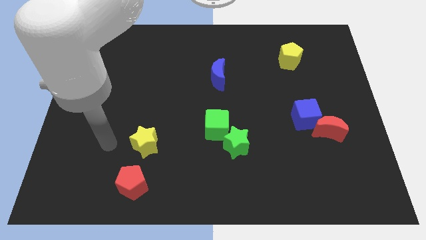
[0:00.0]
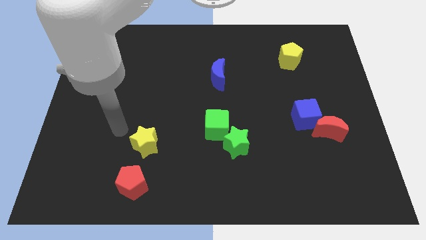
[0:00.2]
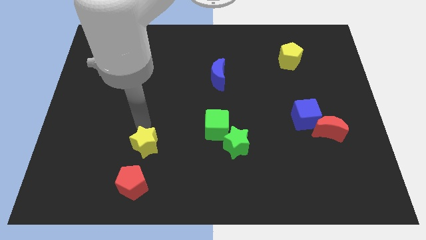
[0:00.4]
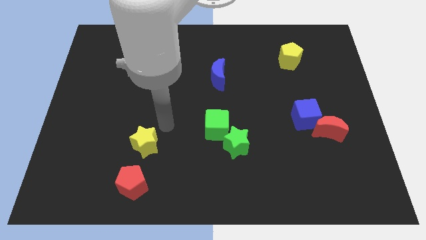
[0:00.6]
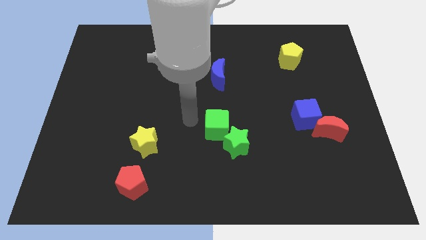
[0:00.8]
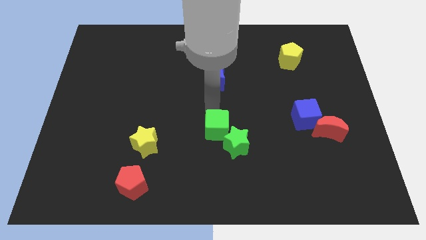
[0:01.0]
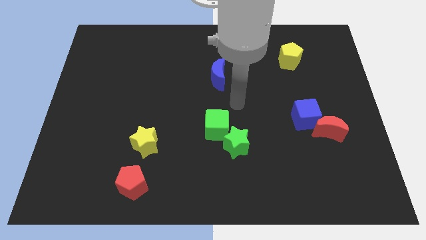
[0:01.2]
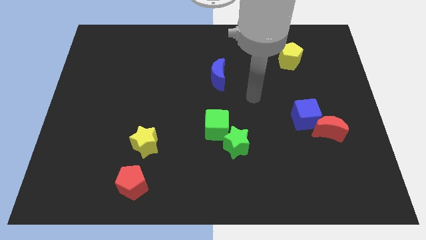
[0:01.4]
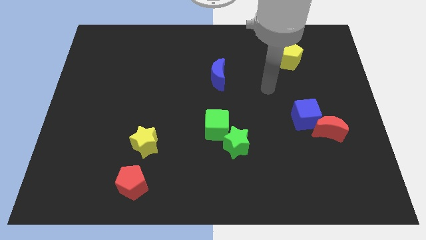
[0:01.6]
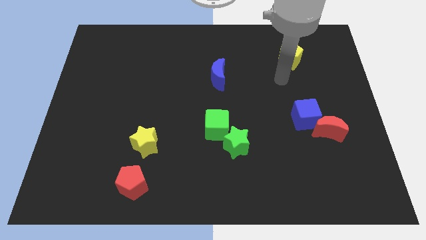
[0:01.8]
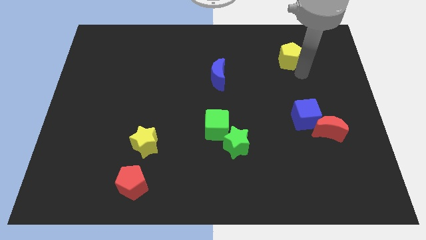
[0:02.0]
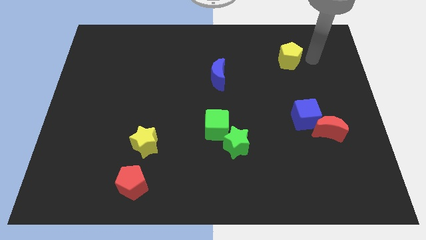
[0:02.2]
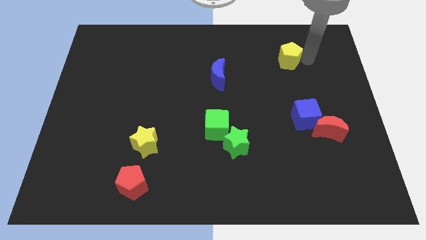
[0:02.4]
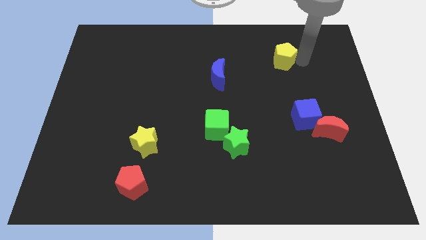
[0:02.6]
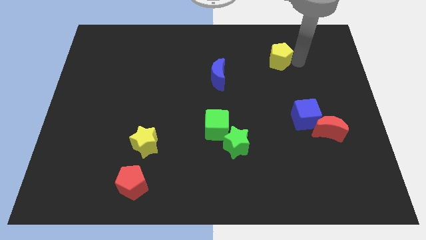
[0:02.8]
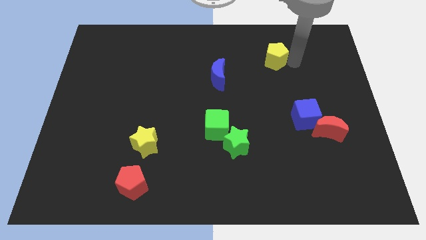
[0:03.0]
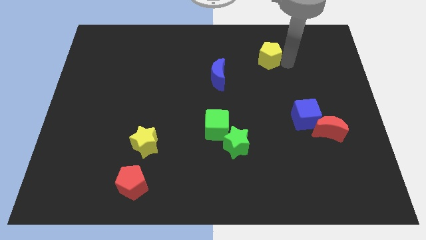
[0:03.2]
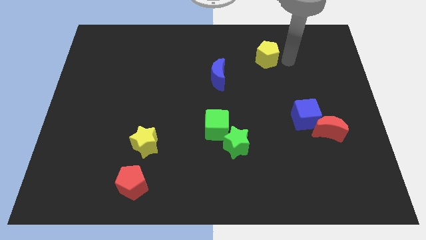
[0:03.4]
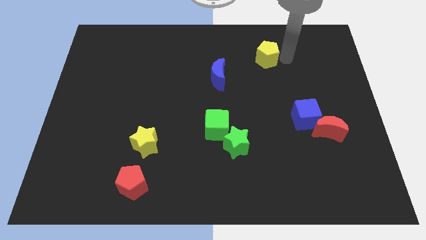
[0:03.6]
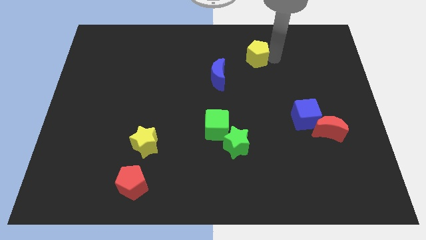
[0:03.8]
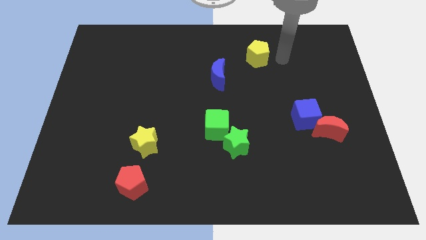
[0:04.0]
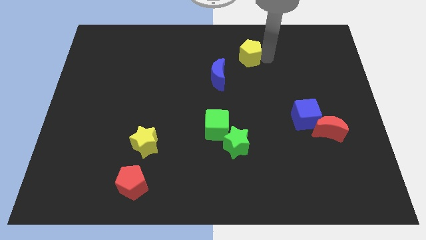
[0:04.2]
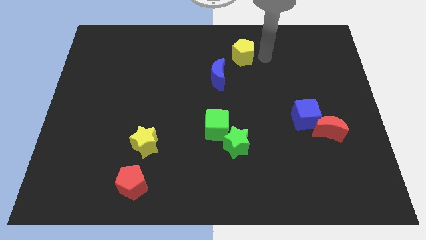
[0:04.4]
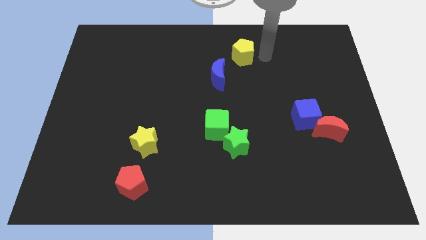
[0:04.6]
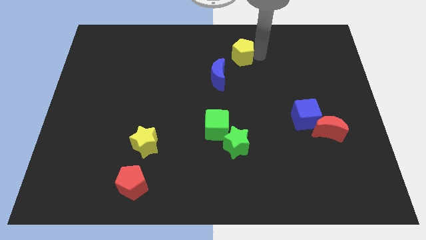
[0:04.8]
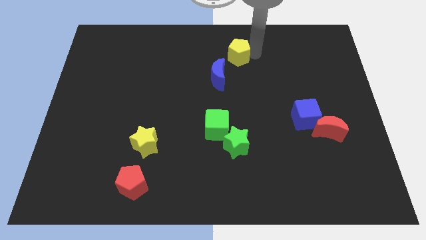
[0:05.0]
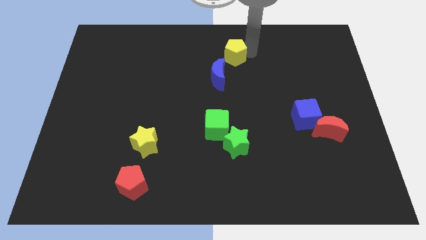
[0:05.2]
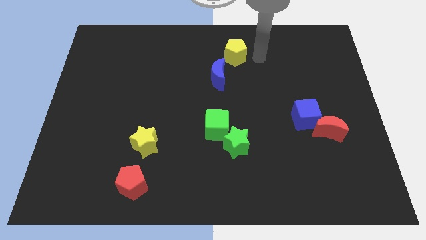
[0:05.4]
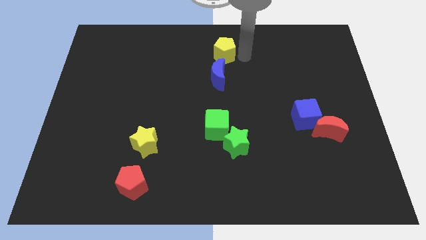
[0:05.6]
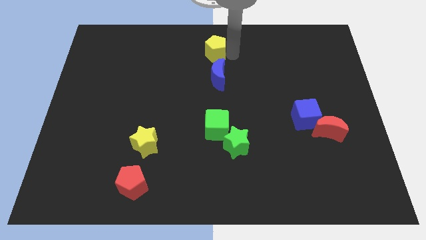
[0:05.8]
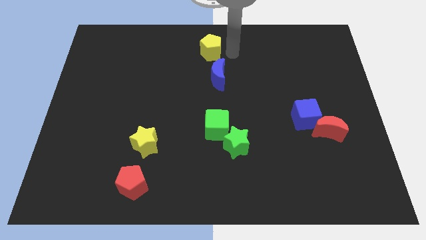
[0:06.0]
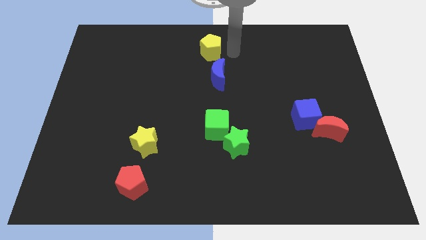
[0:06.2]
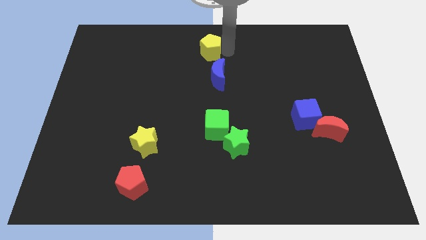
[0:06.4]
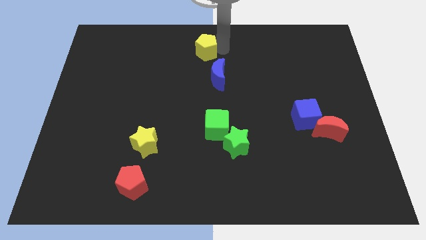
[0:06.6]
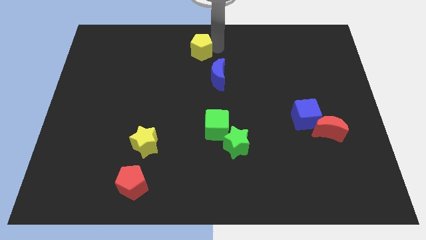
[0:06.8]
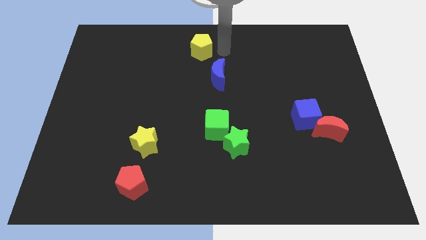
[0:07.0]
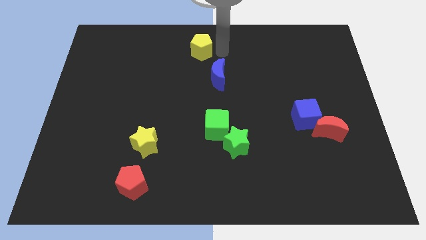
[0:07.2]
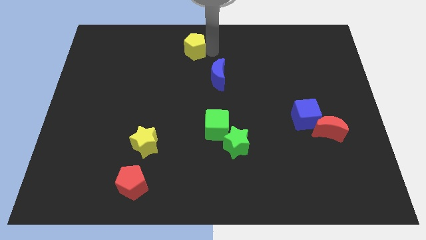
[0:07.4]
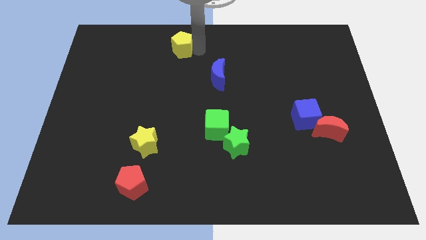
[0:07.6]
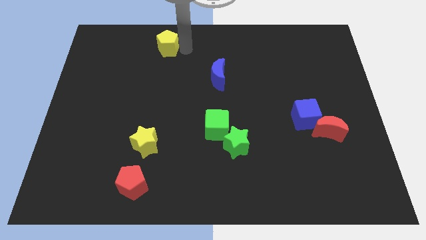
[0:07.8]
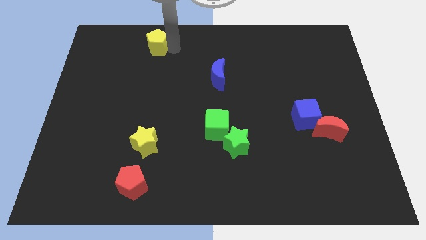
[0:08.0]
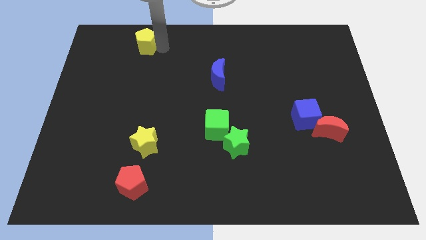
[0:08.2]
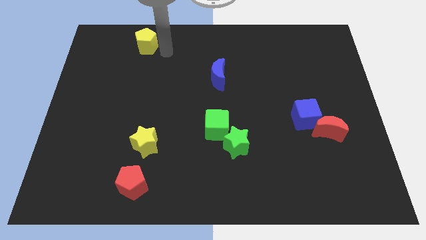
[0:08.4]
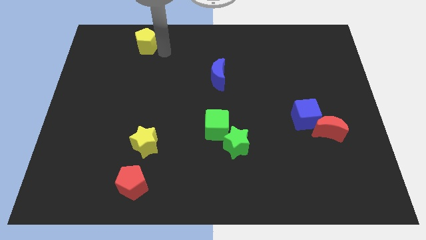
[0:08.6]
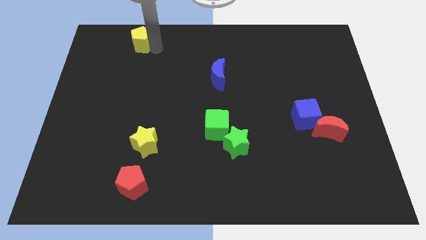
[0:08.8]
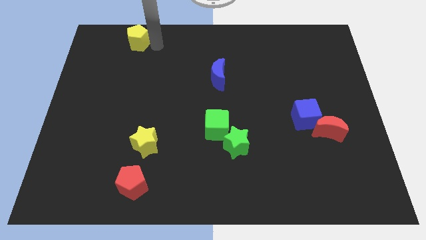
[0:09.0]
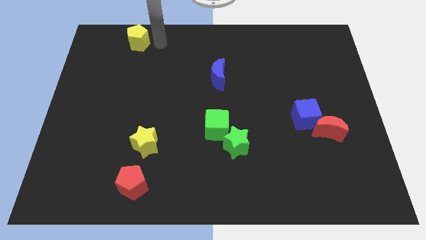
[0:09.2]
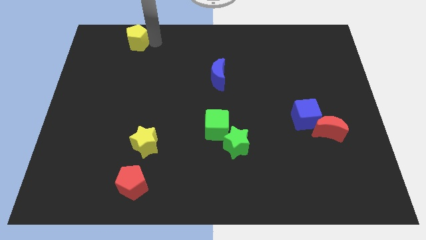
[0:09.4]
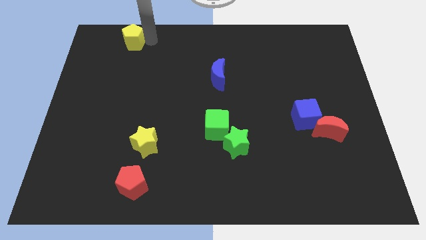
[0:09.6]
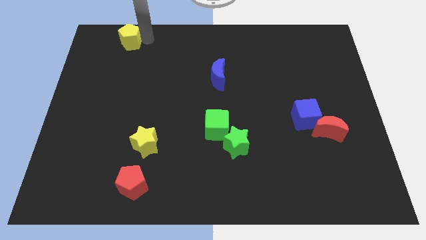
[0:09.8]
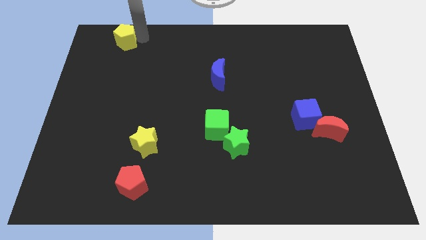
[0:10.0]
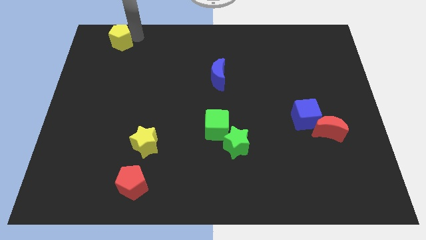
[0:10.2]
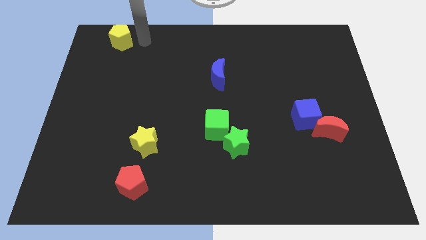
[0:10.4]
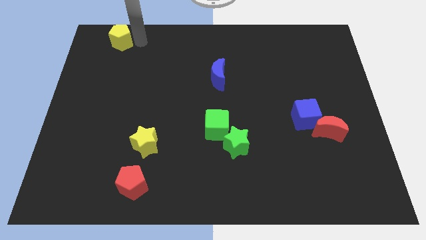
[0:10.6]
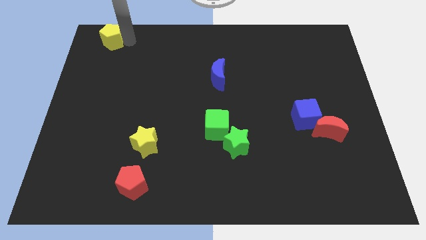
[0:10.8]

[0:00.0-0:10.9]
put the yellow pentagon to the top left

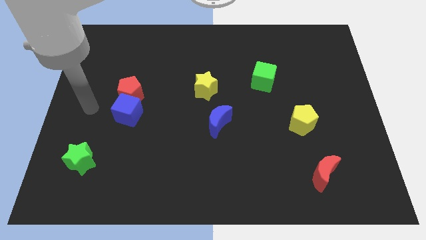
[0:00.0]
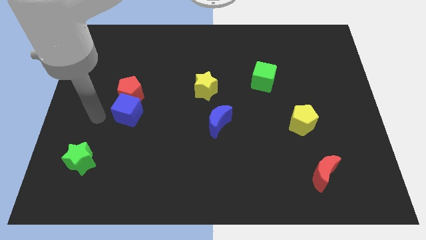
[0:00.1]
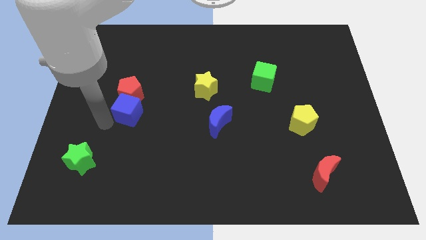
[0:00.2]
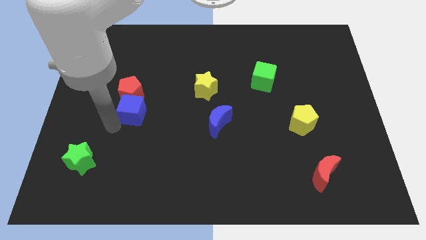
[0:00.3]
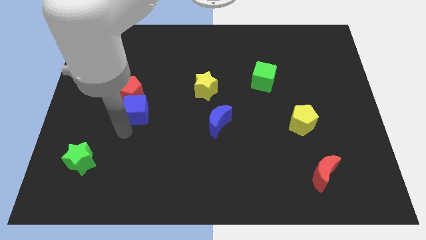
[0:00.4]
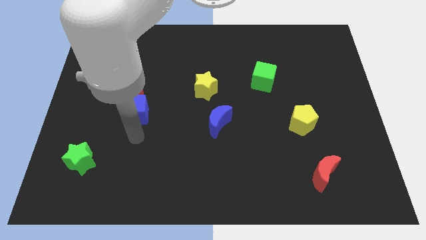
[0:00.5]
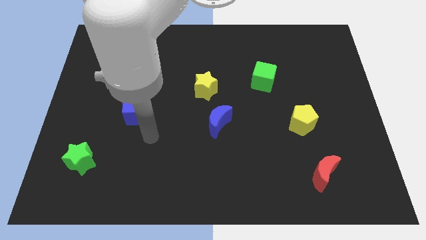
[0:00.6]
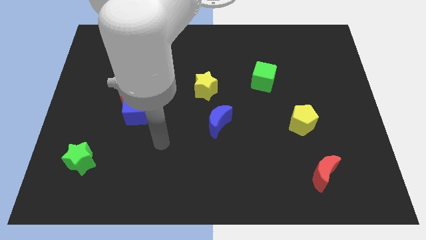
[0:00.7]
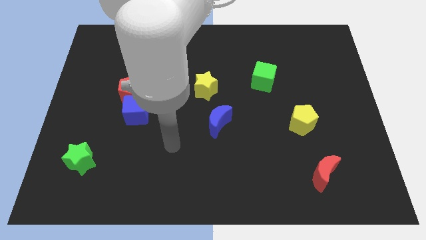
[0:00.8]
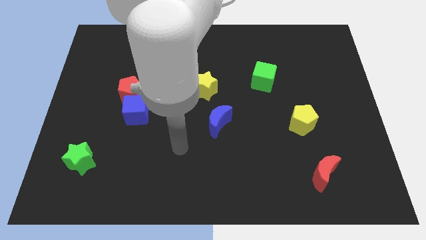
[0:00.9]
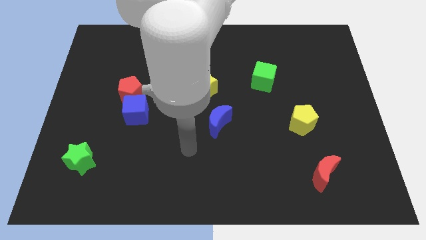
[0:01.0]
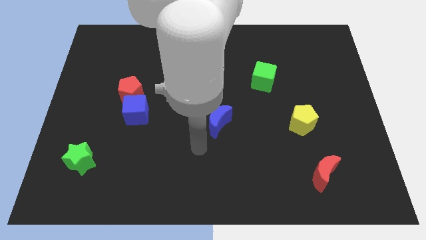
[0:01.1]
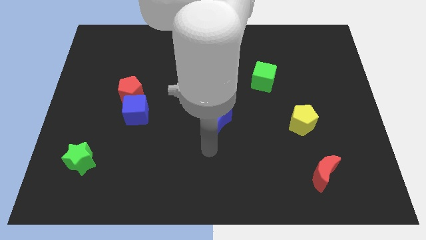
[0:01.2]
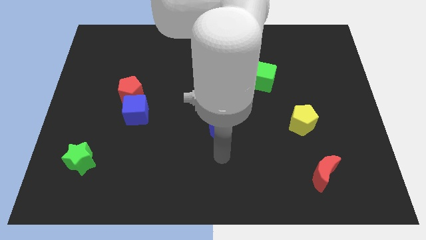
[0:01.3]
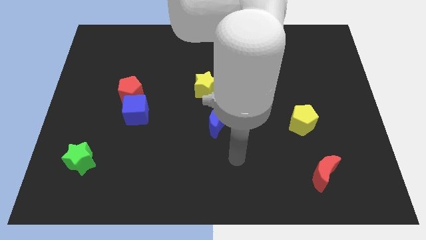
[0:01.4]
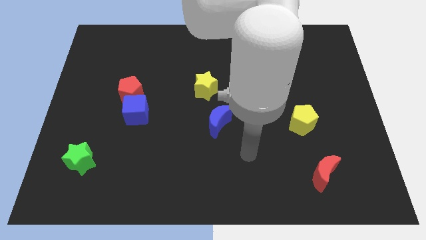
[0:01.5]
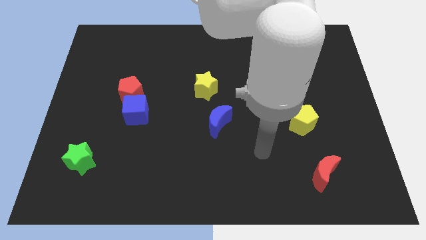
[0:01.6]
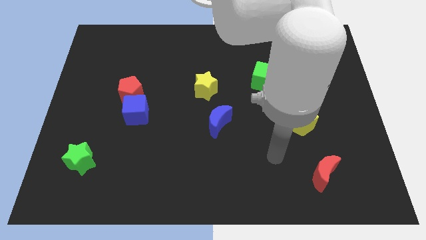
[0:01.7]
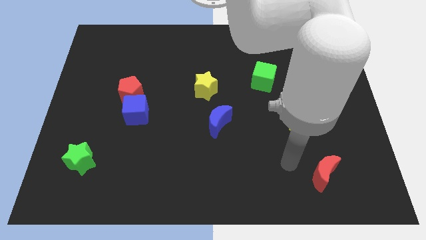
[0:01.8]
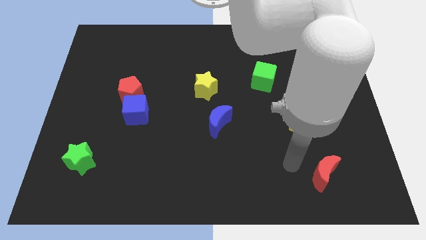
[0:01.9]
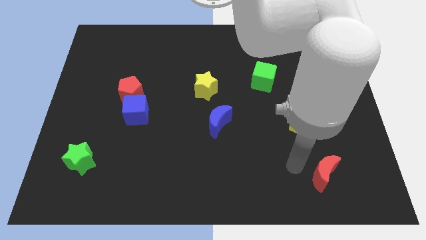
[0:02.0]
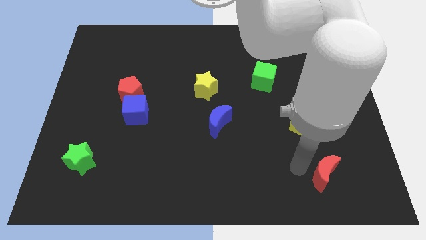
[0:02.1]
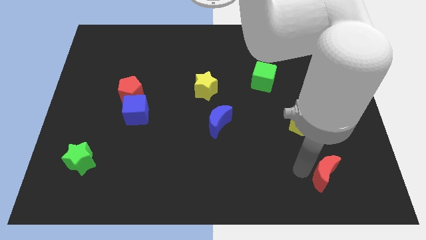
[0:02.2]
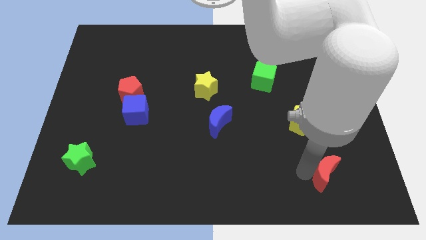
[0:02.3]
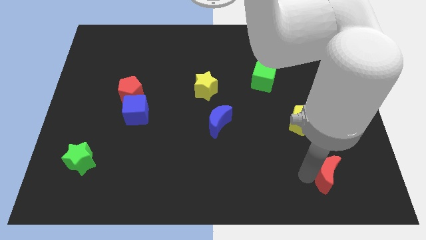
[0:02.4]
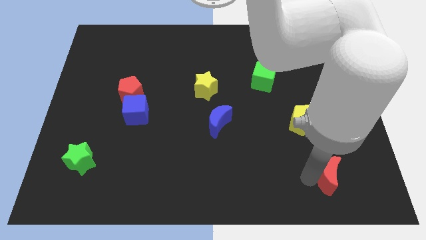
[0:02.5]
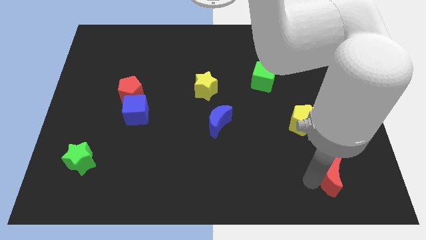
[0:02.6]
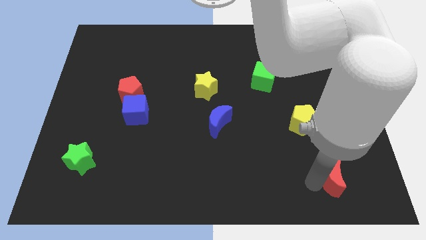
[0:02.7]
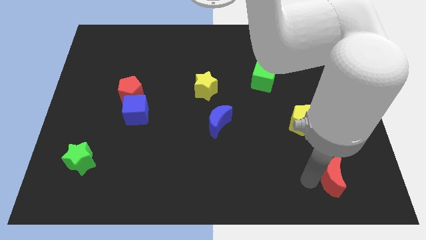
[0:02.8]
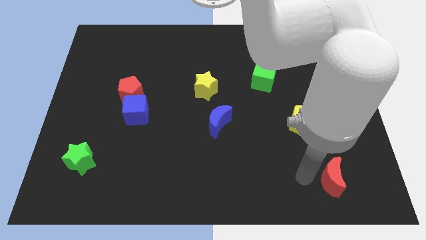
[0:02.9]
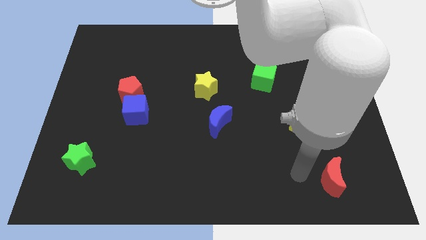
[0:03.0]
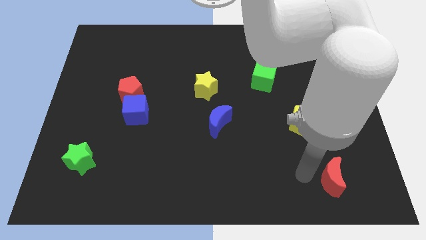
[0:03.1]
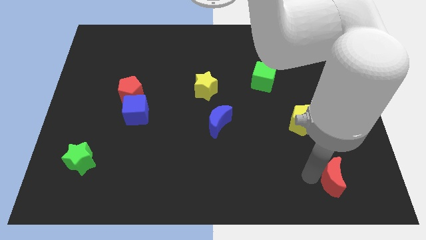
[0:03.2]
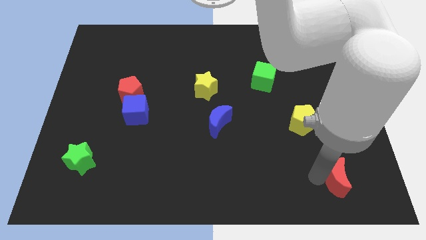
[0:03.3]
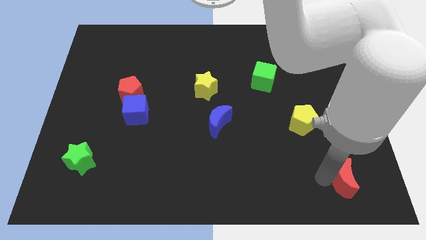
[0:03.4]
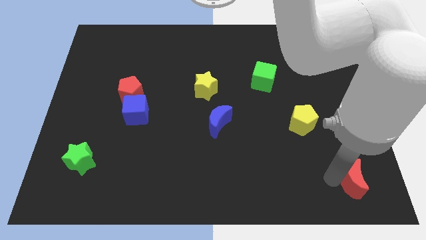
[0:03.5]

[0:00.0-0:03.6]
slide the red moon to the bottom right
